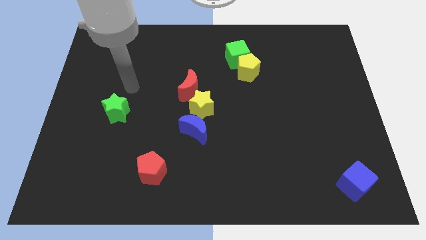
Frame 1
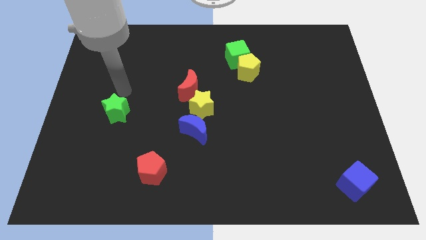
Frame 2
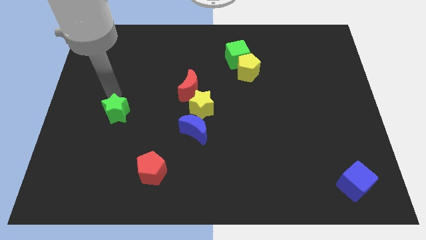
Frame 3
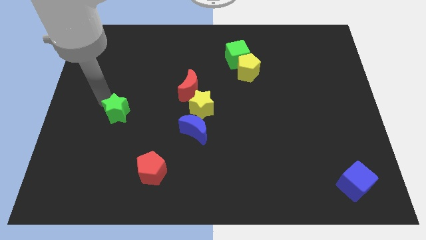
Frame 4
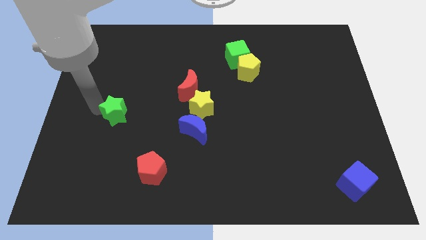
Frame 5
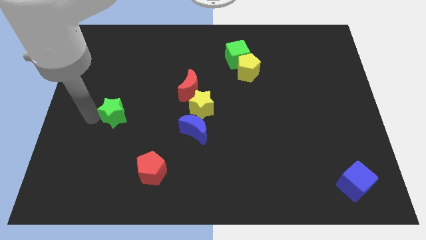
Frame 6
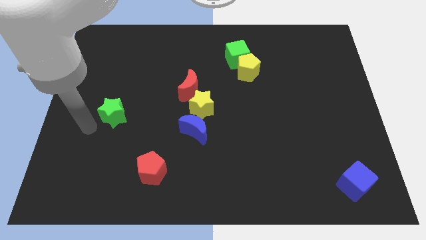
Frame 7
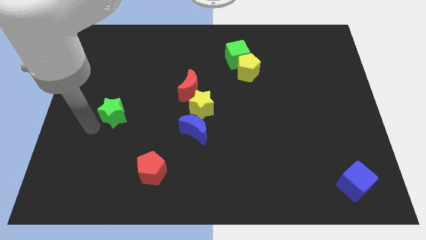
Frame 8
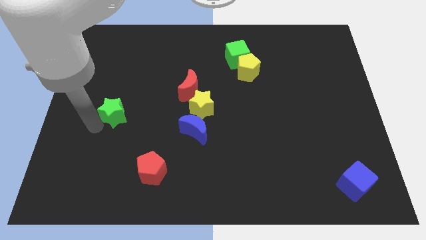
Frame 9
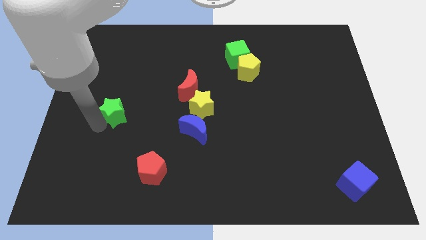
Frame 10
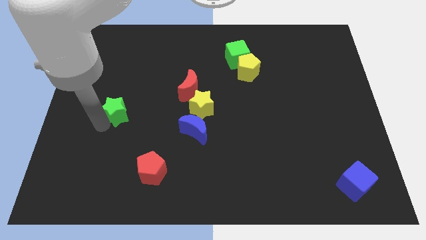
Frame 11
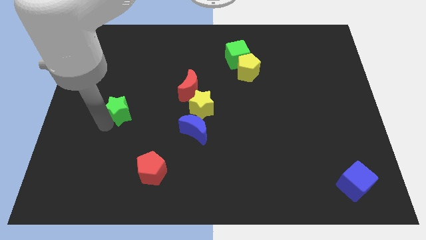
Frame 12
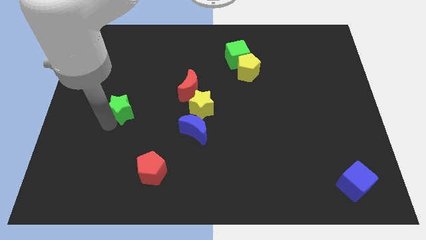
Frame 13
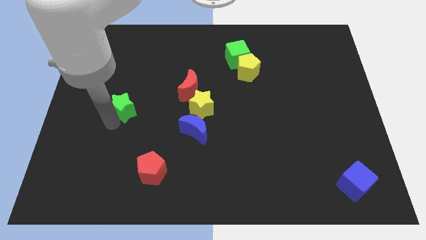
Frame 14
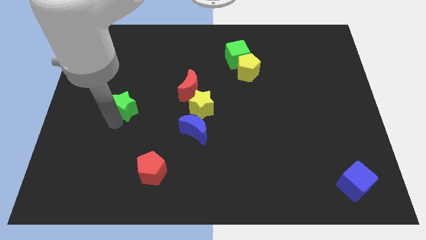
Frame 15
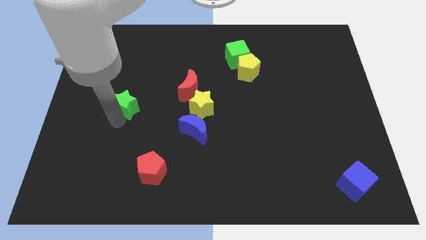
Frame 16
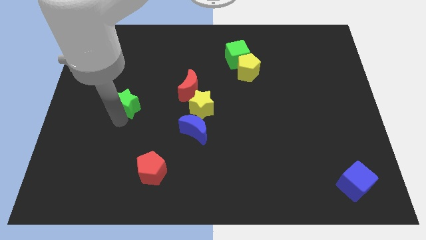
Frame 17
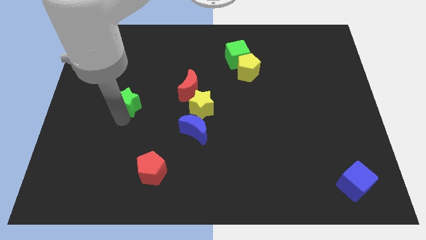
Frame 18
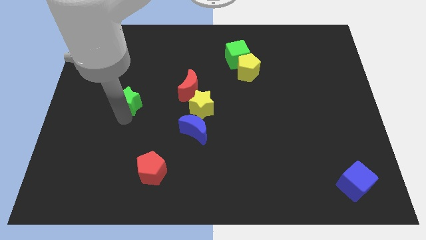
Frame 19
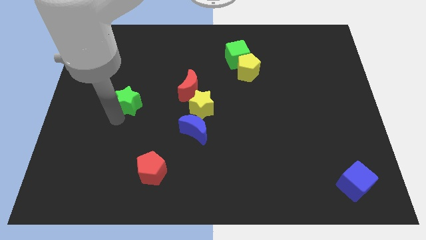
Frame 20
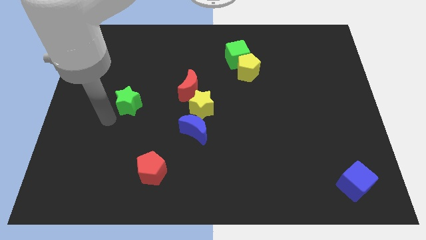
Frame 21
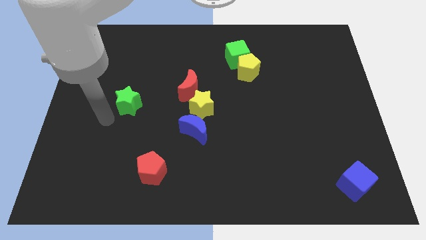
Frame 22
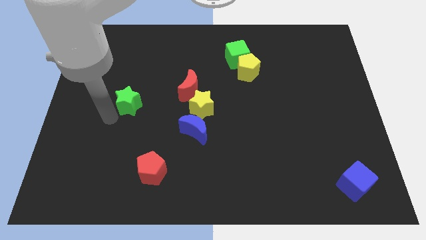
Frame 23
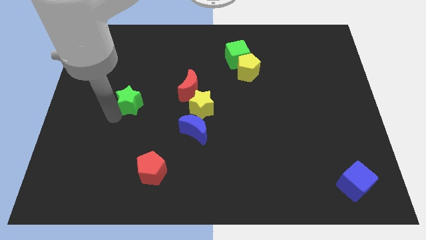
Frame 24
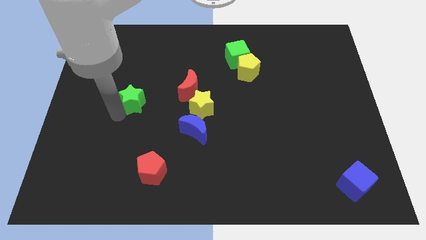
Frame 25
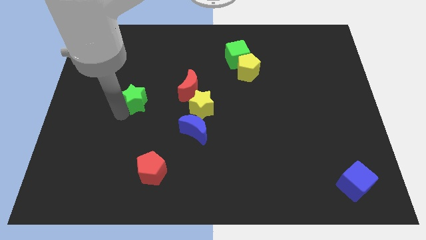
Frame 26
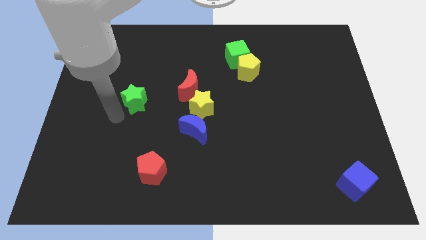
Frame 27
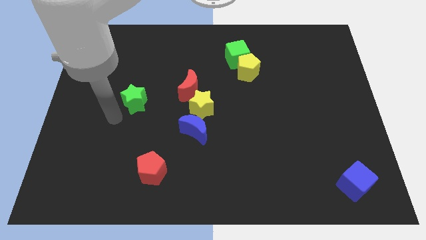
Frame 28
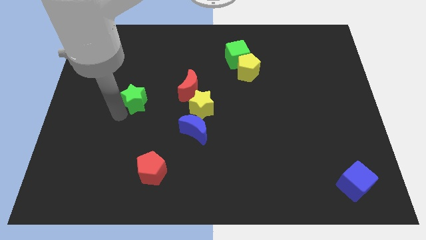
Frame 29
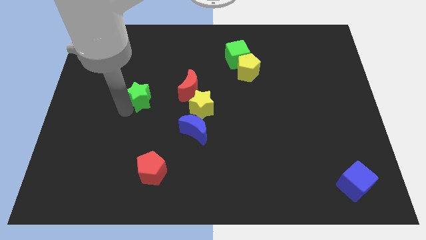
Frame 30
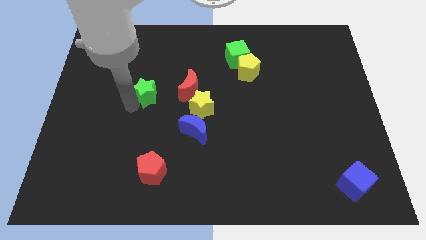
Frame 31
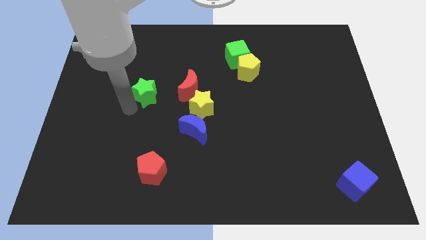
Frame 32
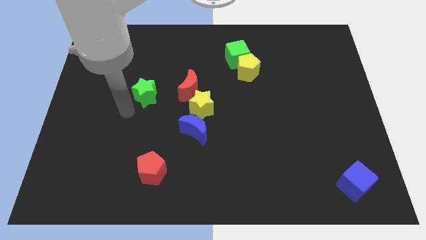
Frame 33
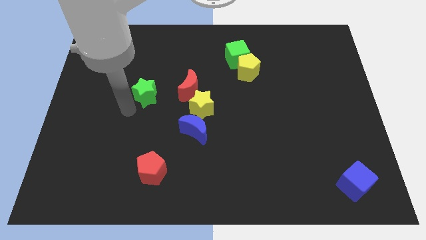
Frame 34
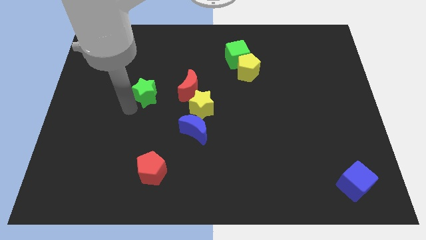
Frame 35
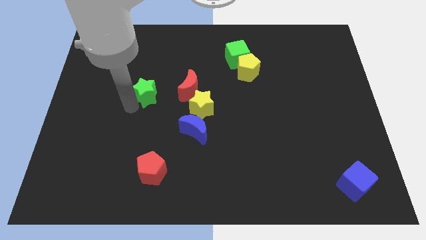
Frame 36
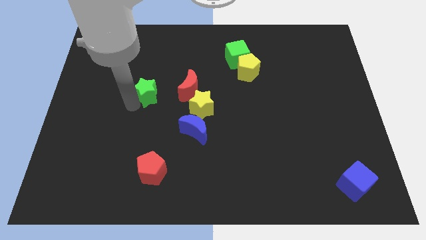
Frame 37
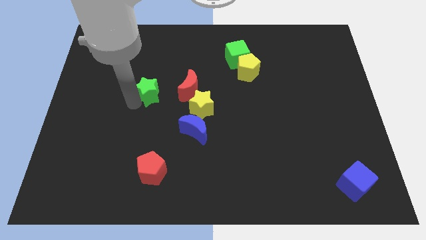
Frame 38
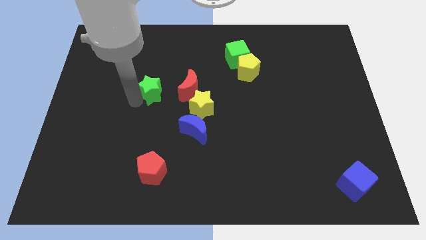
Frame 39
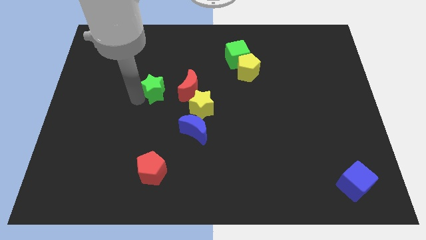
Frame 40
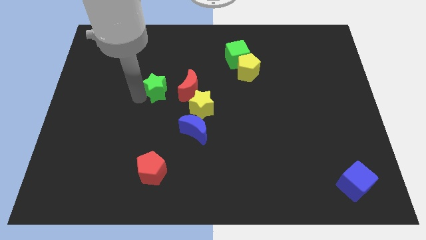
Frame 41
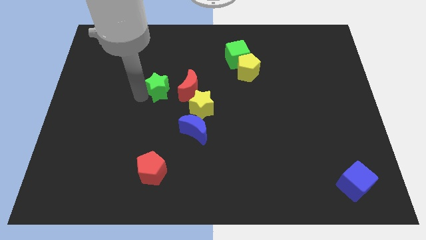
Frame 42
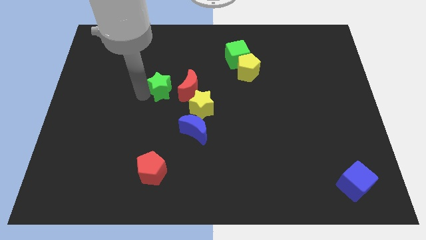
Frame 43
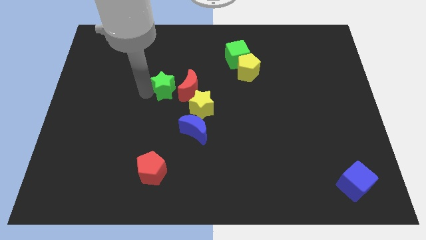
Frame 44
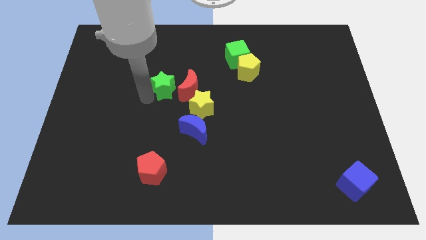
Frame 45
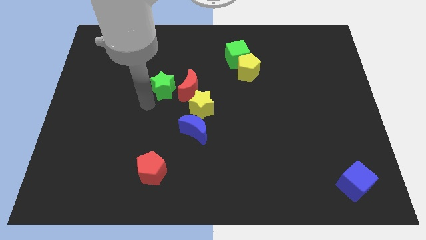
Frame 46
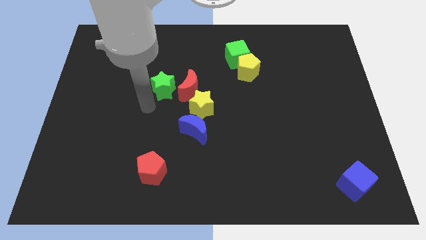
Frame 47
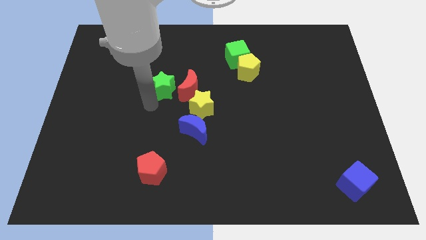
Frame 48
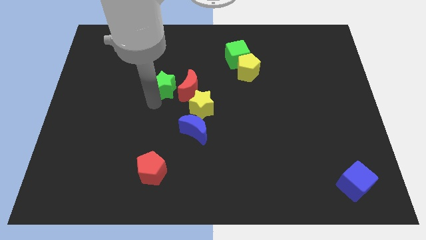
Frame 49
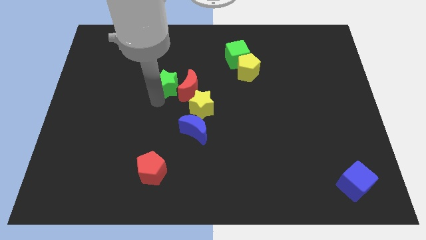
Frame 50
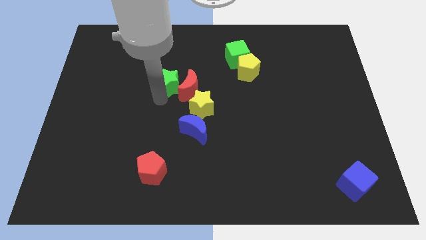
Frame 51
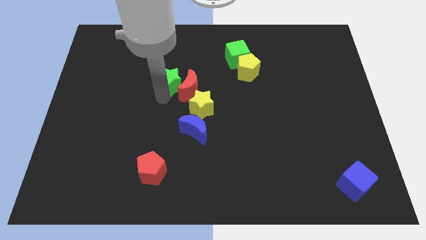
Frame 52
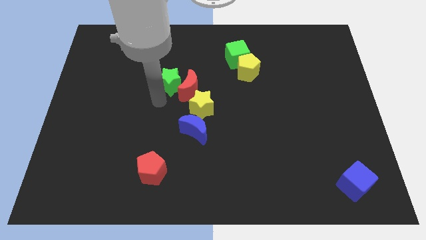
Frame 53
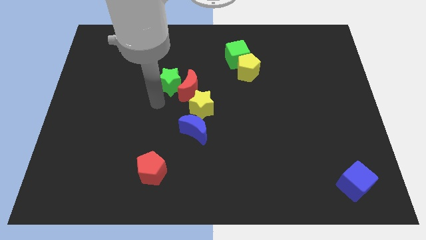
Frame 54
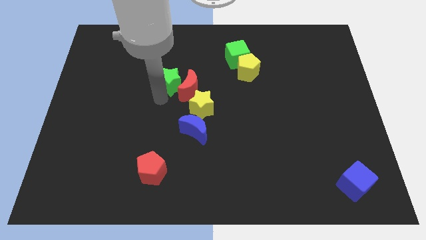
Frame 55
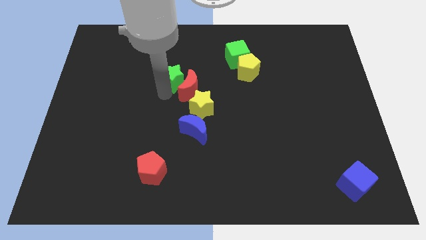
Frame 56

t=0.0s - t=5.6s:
slide the green star above the red moon

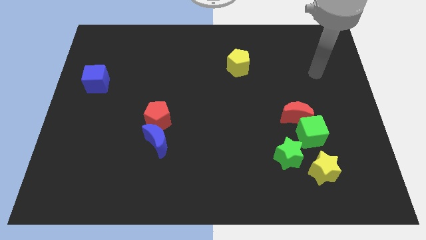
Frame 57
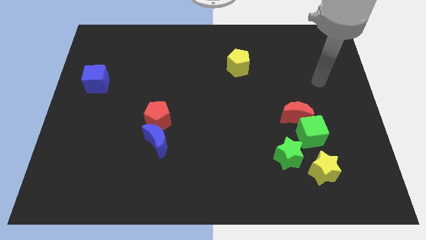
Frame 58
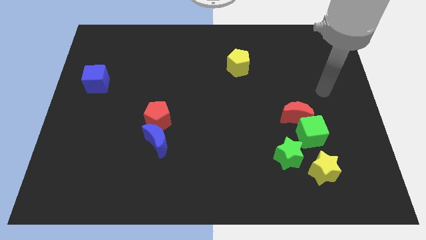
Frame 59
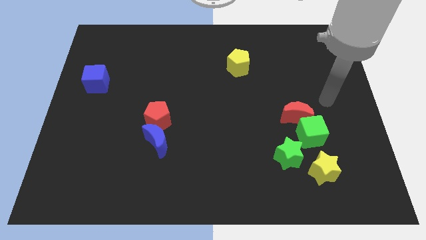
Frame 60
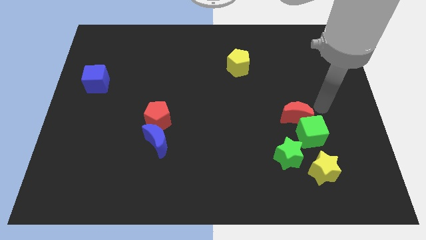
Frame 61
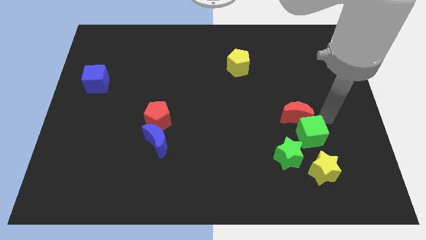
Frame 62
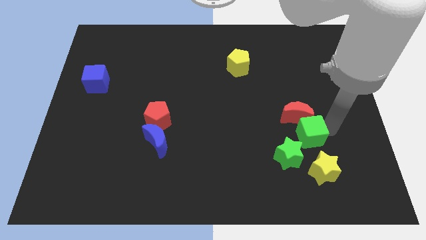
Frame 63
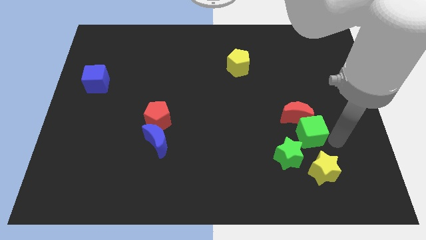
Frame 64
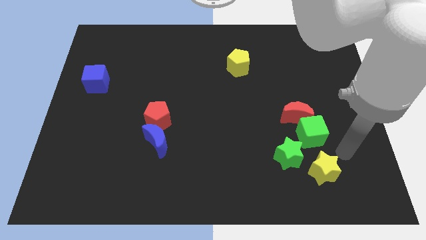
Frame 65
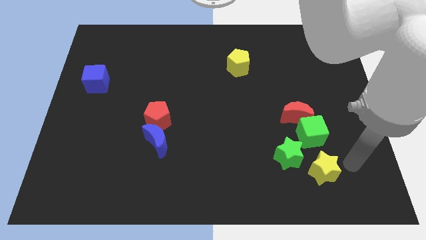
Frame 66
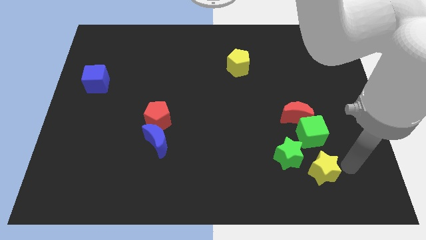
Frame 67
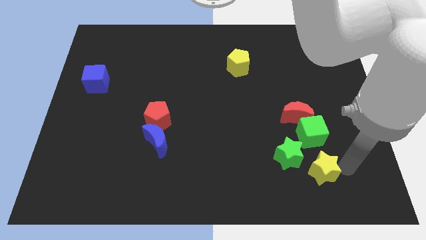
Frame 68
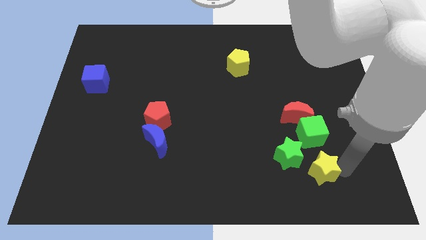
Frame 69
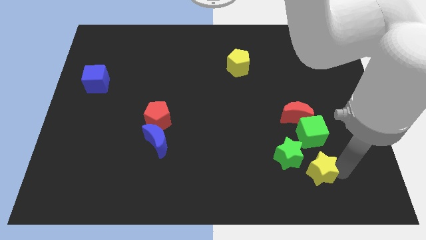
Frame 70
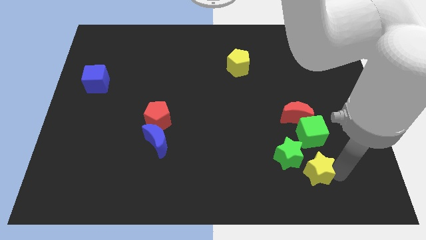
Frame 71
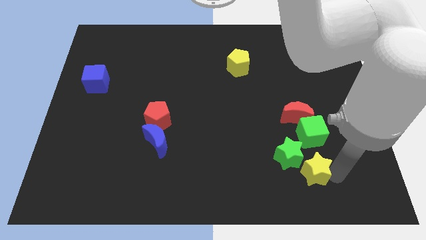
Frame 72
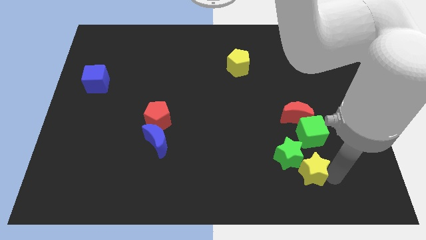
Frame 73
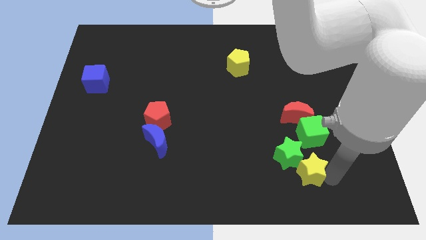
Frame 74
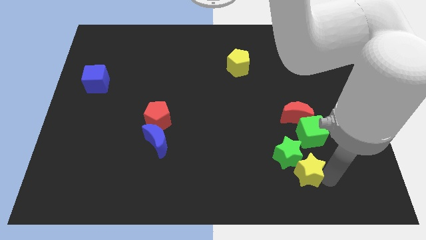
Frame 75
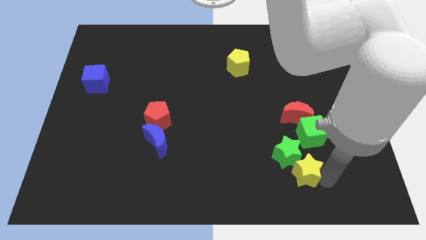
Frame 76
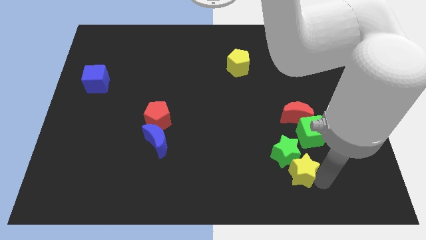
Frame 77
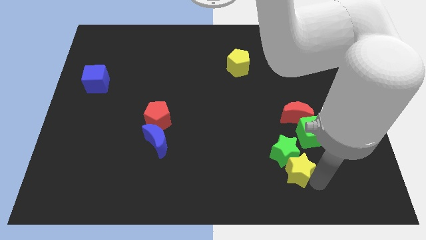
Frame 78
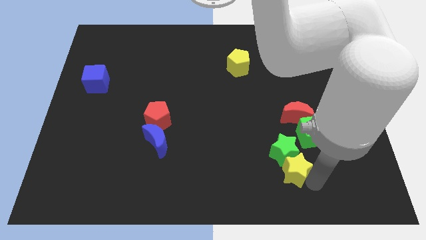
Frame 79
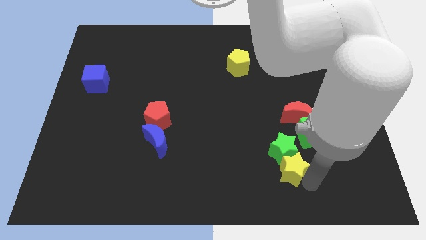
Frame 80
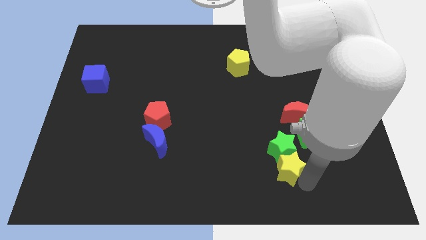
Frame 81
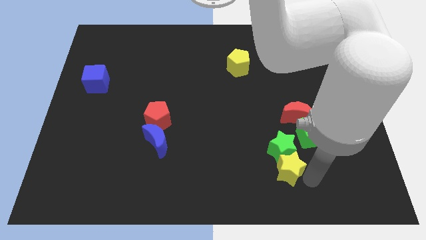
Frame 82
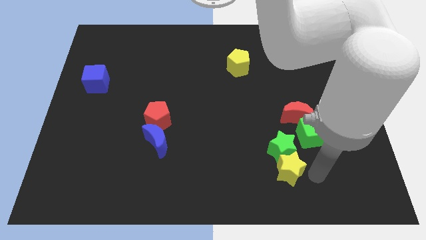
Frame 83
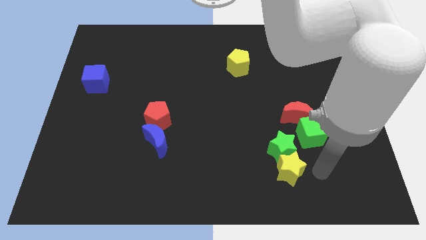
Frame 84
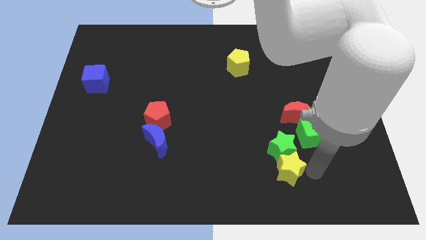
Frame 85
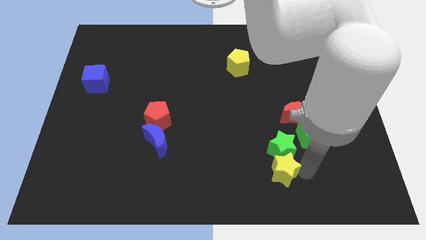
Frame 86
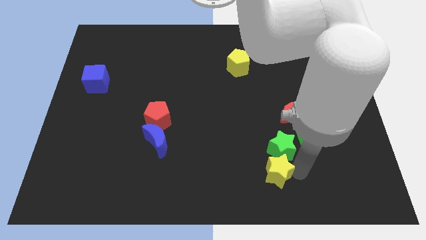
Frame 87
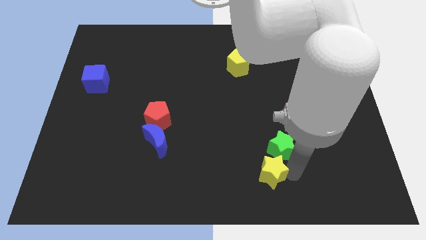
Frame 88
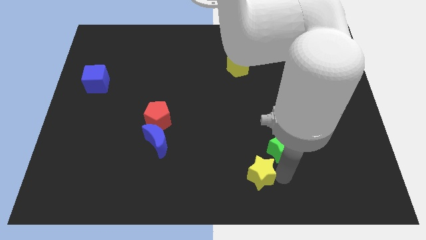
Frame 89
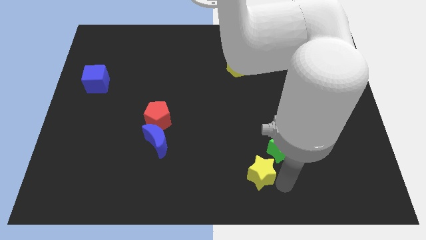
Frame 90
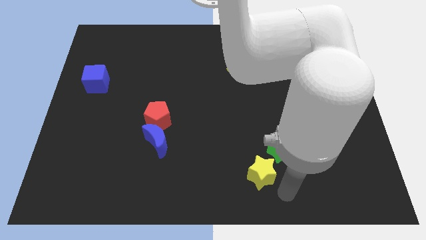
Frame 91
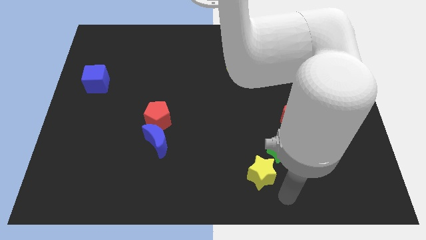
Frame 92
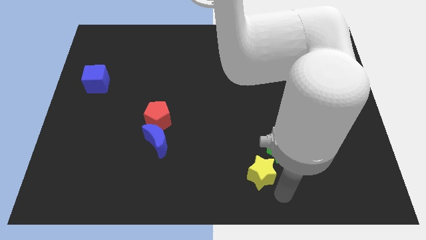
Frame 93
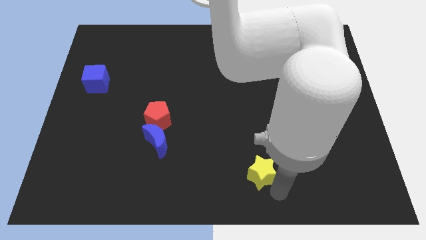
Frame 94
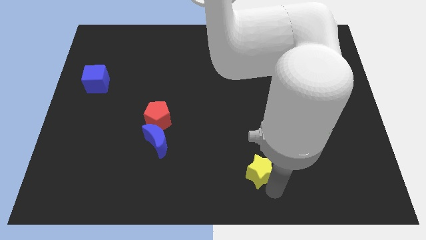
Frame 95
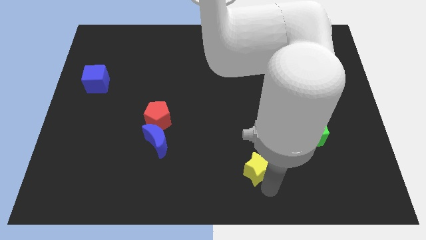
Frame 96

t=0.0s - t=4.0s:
push the yellow star just left of the green star
